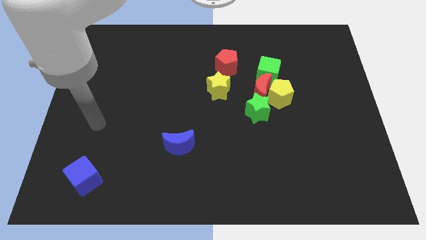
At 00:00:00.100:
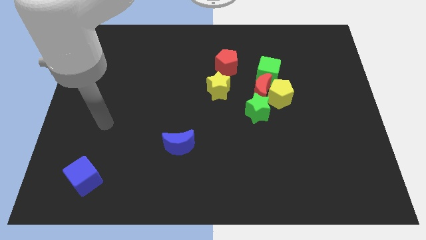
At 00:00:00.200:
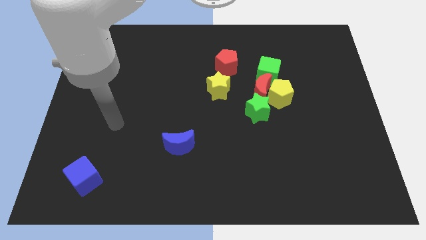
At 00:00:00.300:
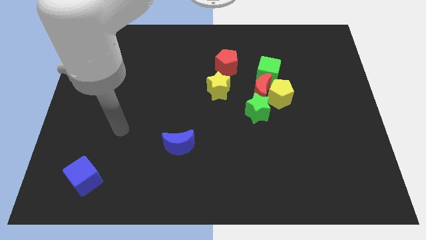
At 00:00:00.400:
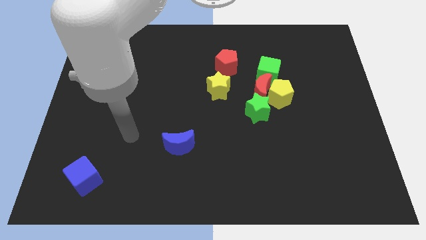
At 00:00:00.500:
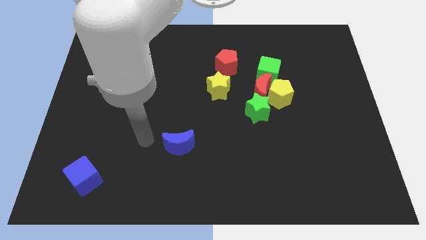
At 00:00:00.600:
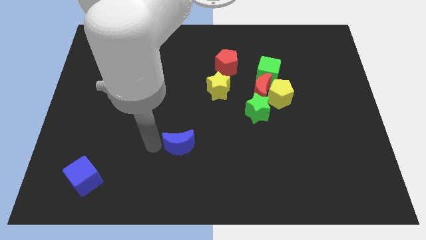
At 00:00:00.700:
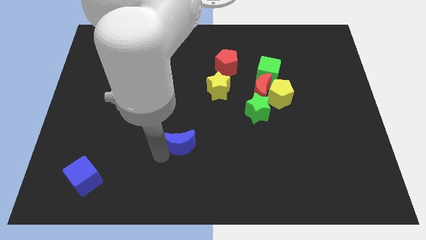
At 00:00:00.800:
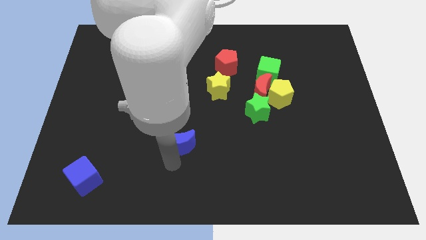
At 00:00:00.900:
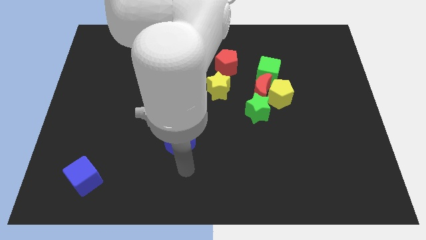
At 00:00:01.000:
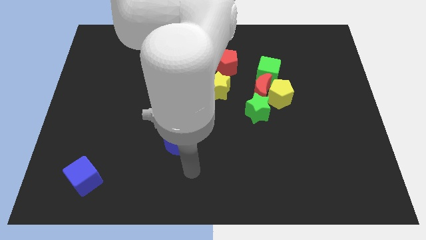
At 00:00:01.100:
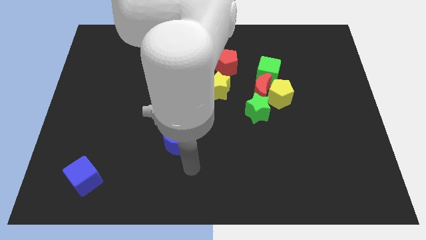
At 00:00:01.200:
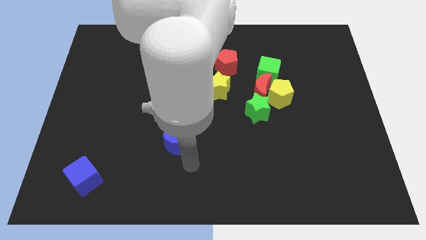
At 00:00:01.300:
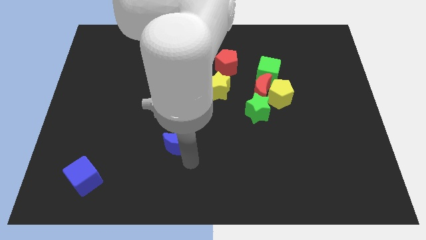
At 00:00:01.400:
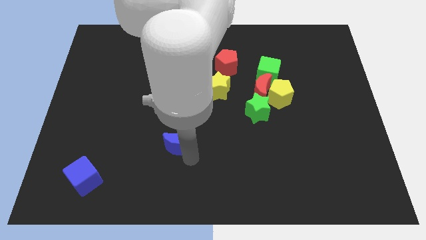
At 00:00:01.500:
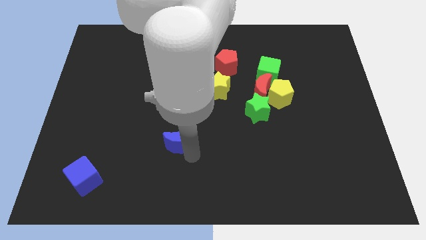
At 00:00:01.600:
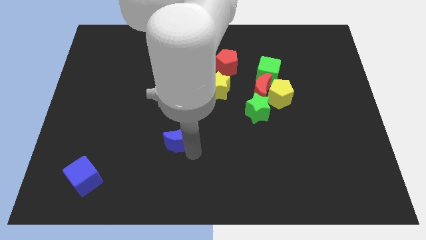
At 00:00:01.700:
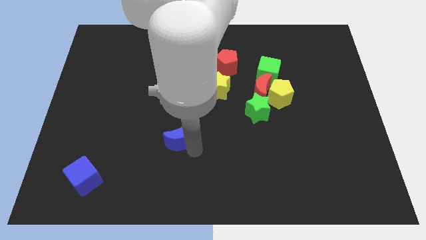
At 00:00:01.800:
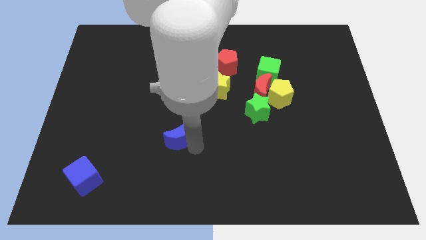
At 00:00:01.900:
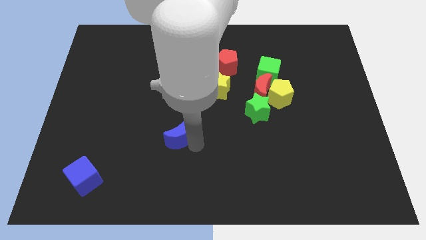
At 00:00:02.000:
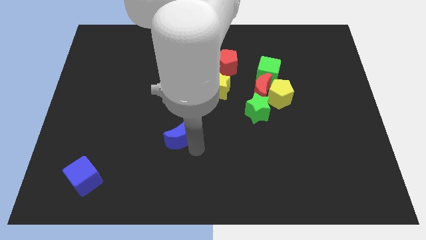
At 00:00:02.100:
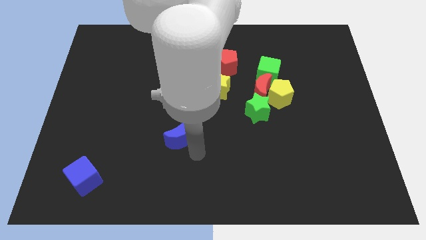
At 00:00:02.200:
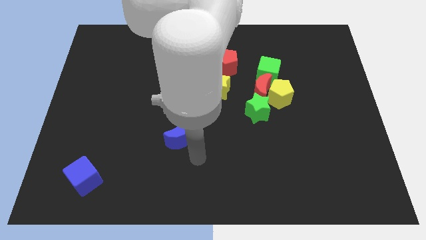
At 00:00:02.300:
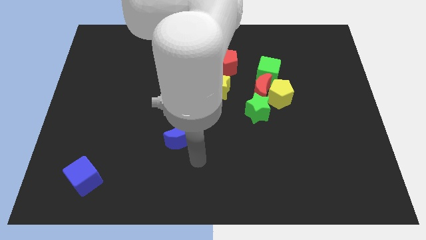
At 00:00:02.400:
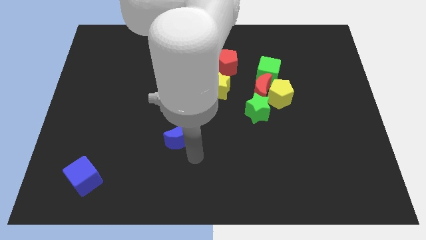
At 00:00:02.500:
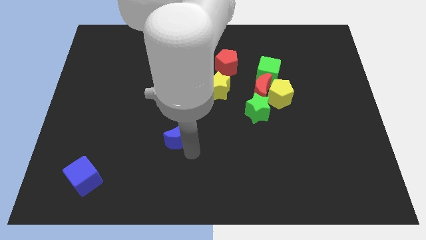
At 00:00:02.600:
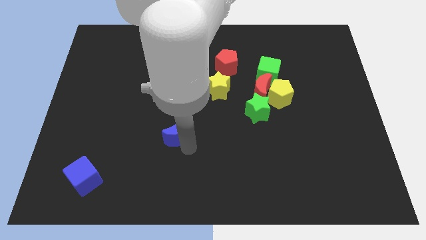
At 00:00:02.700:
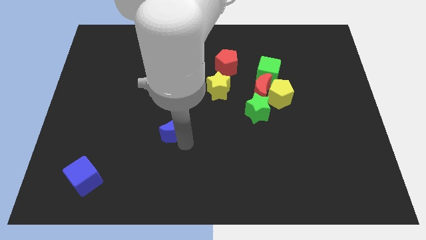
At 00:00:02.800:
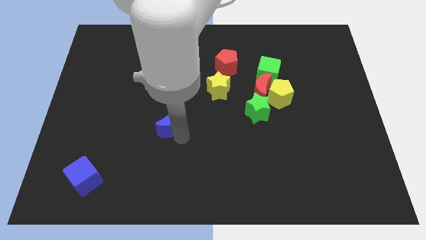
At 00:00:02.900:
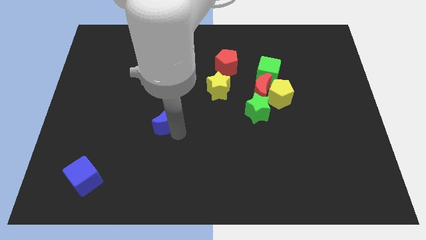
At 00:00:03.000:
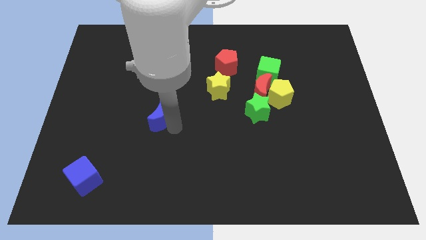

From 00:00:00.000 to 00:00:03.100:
push the blue moon up and to the left somewhat

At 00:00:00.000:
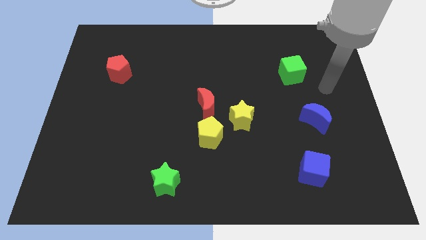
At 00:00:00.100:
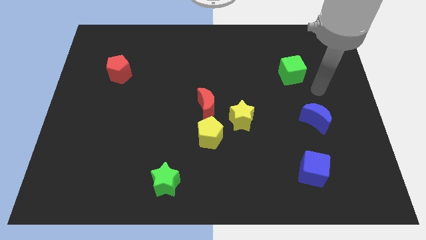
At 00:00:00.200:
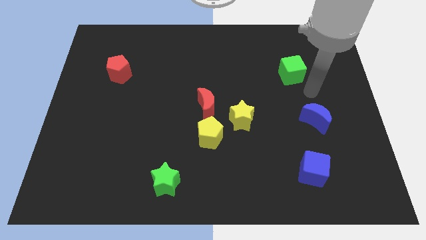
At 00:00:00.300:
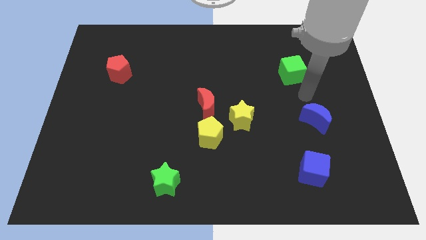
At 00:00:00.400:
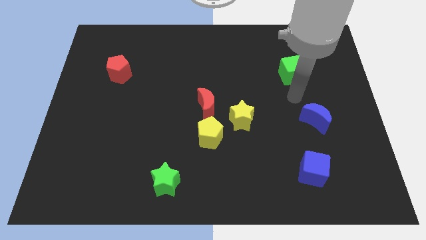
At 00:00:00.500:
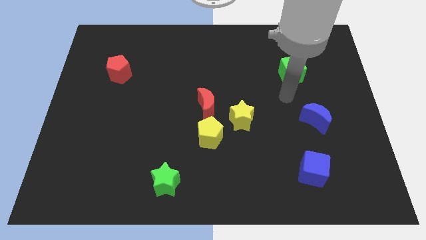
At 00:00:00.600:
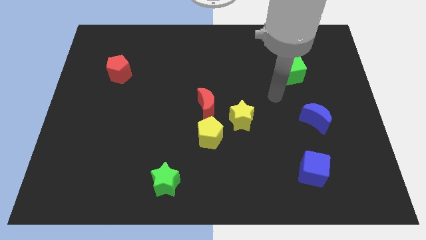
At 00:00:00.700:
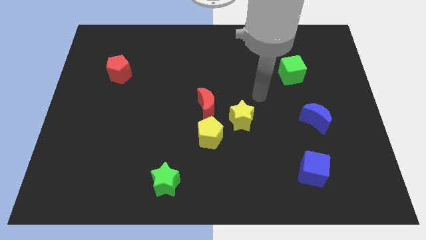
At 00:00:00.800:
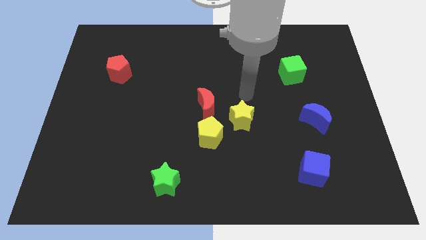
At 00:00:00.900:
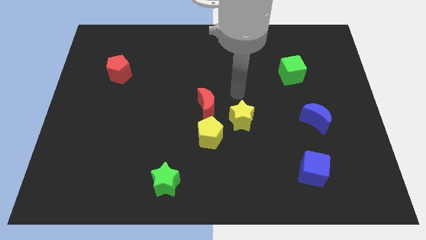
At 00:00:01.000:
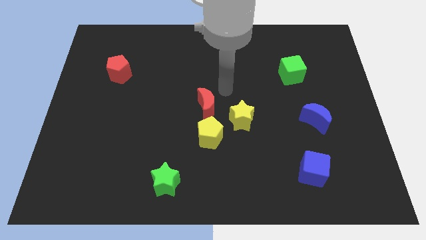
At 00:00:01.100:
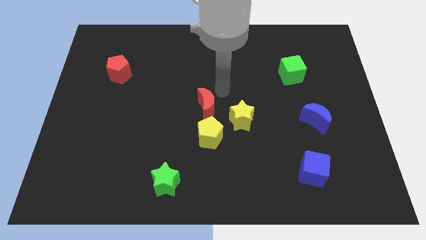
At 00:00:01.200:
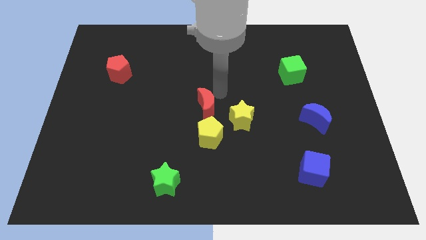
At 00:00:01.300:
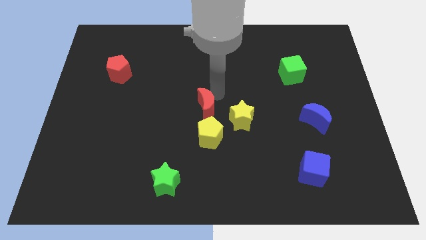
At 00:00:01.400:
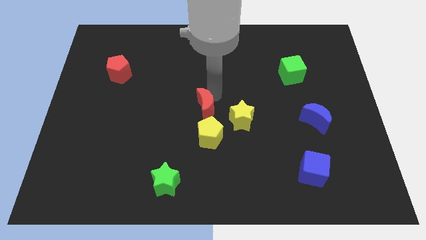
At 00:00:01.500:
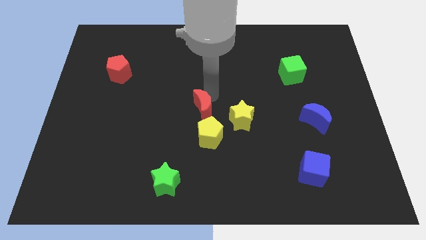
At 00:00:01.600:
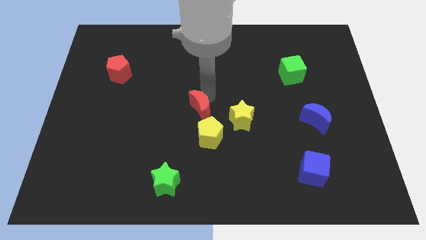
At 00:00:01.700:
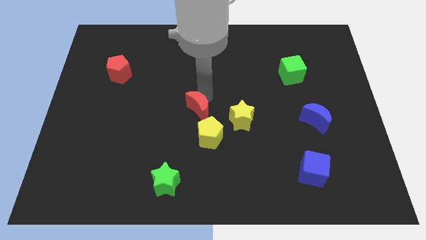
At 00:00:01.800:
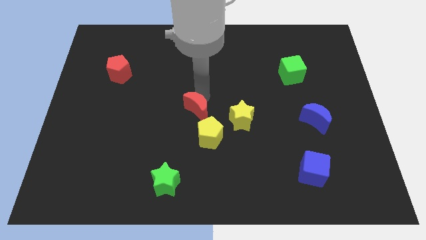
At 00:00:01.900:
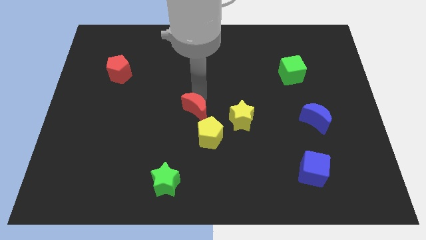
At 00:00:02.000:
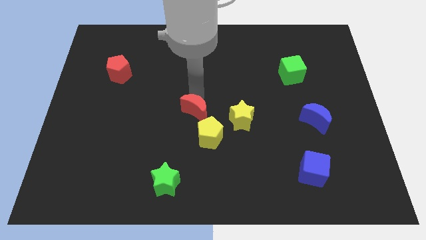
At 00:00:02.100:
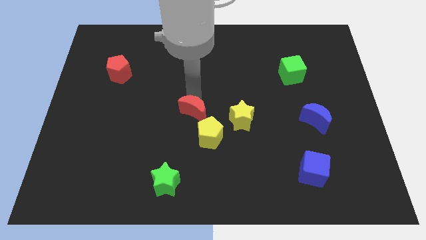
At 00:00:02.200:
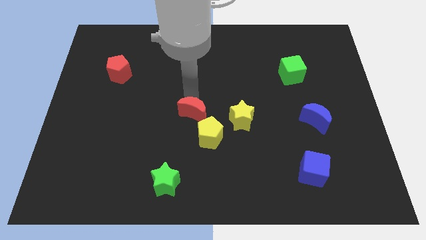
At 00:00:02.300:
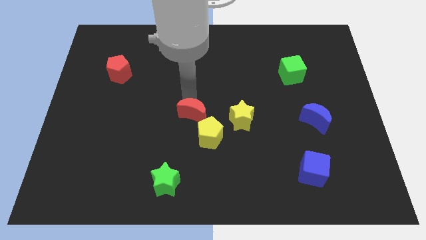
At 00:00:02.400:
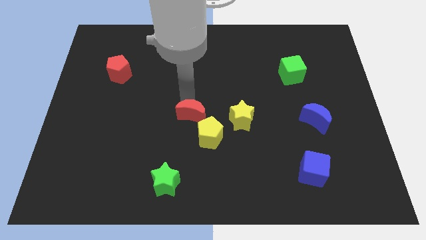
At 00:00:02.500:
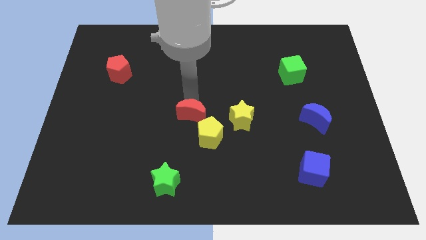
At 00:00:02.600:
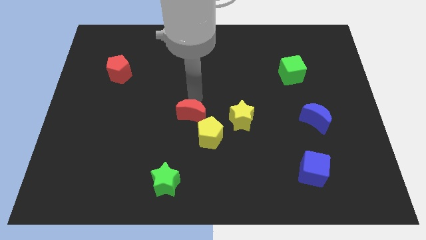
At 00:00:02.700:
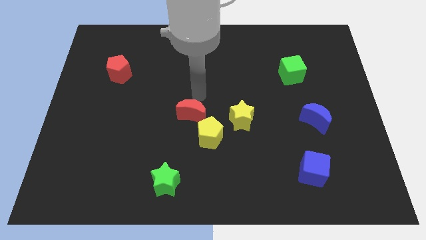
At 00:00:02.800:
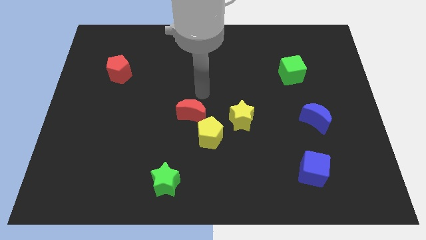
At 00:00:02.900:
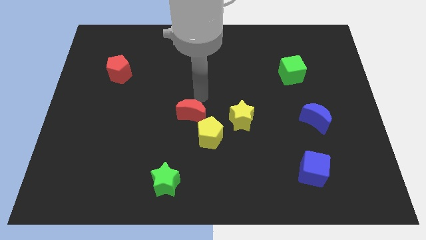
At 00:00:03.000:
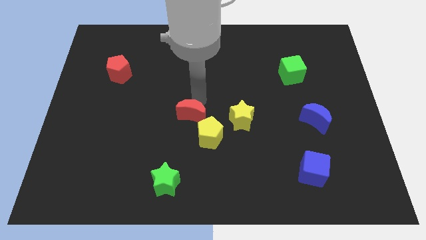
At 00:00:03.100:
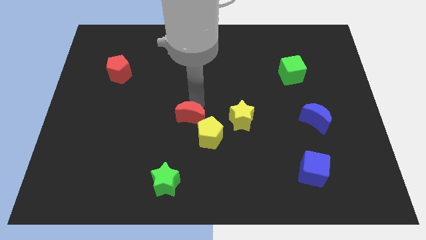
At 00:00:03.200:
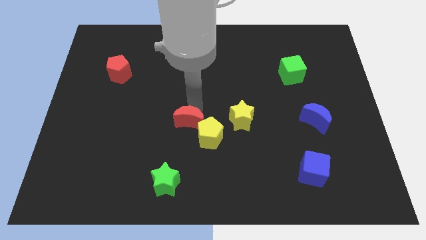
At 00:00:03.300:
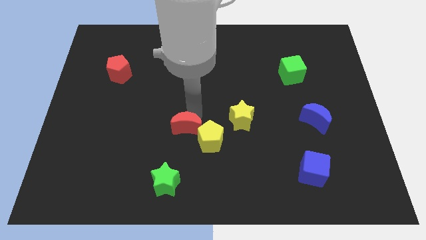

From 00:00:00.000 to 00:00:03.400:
move the red moon a bit diagonally downwards and left

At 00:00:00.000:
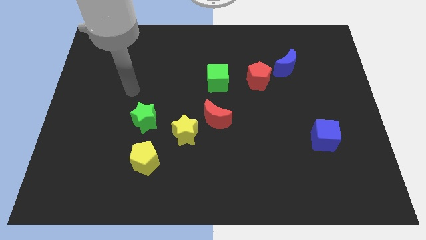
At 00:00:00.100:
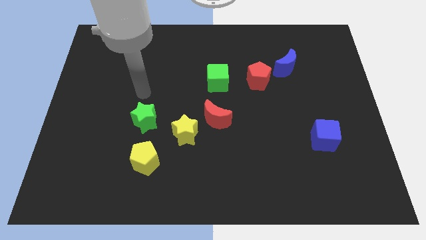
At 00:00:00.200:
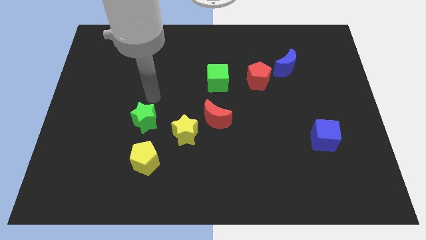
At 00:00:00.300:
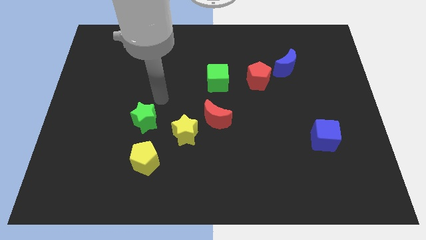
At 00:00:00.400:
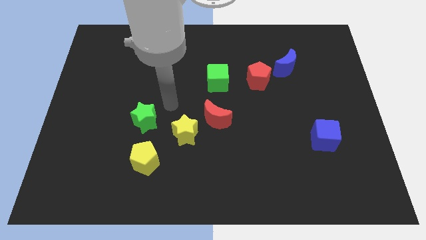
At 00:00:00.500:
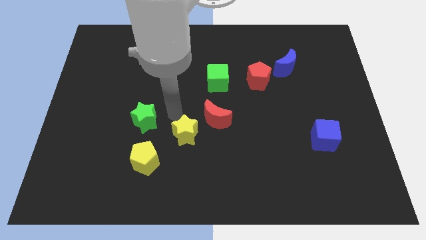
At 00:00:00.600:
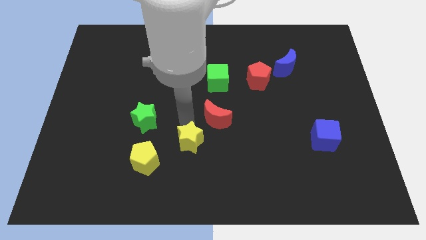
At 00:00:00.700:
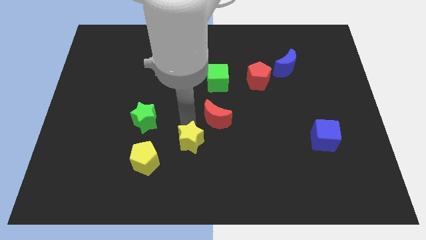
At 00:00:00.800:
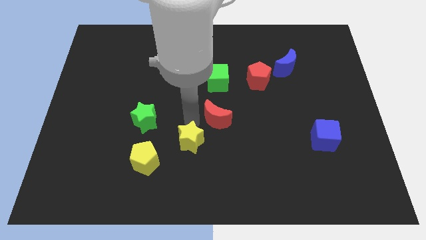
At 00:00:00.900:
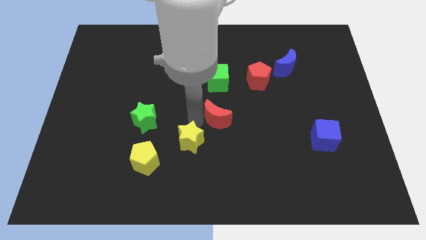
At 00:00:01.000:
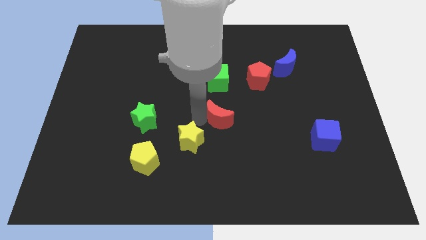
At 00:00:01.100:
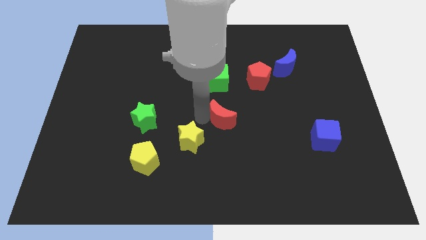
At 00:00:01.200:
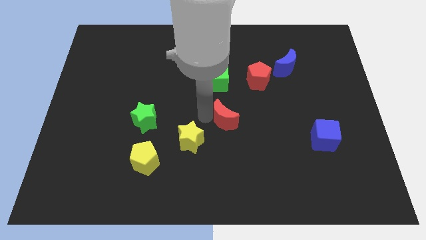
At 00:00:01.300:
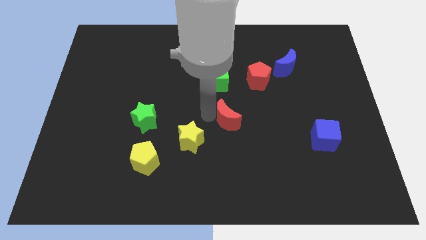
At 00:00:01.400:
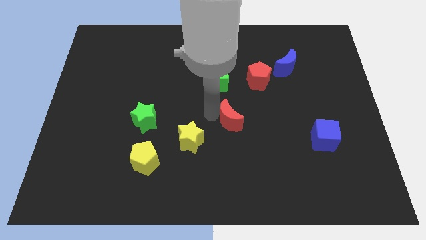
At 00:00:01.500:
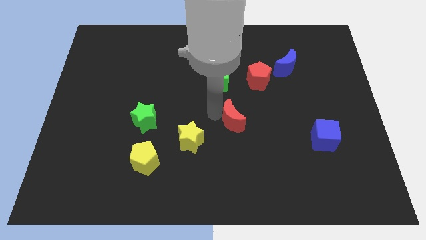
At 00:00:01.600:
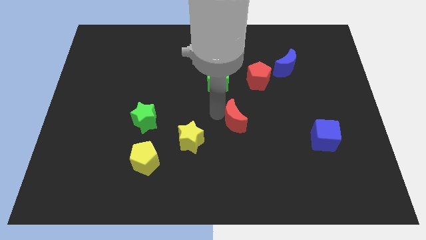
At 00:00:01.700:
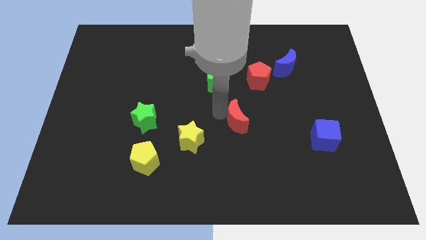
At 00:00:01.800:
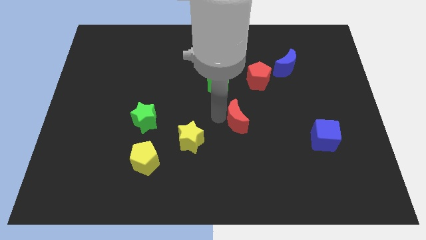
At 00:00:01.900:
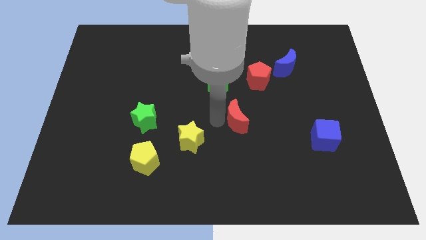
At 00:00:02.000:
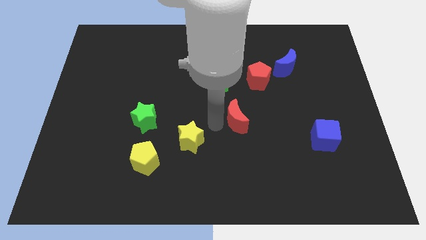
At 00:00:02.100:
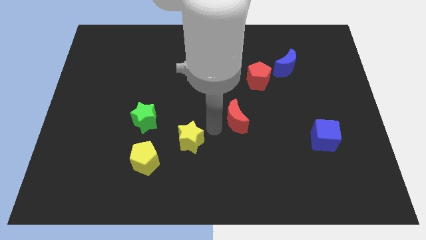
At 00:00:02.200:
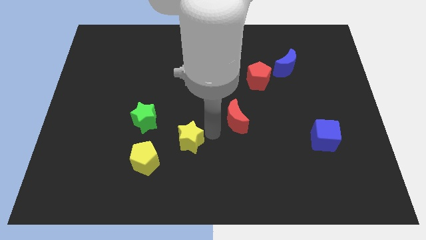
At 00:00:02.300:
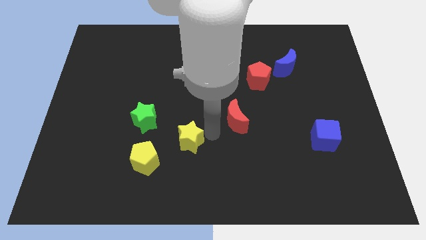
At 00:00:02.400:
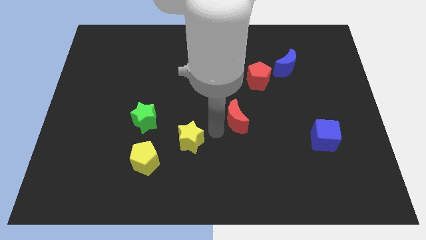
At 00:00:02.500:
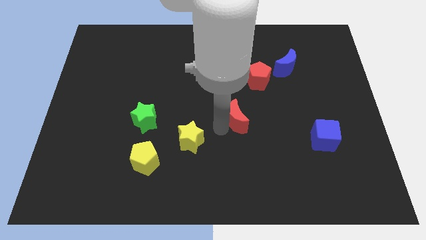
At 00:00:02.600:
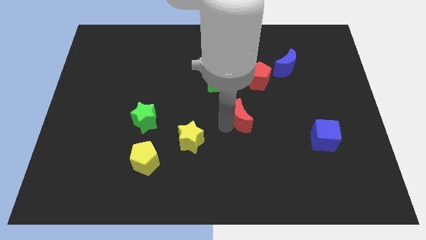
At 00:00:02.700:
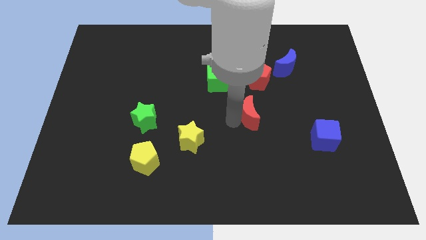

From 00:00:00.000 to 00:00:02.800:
push the red moon right somewhat
